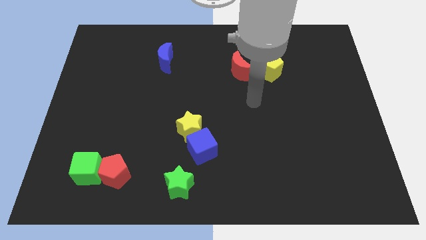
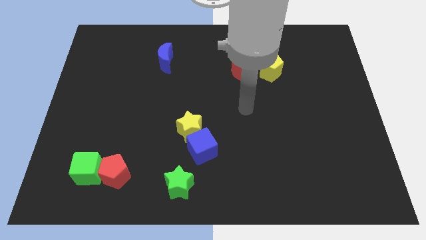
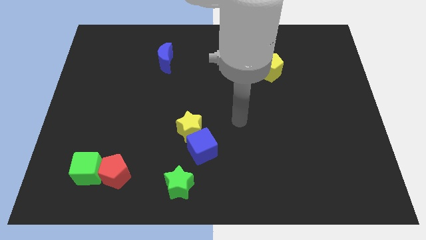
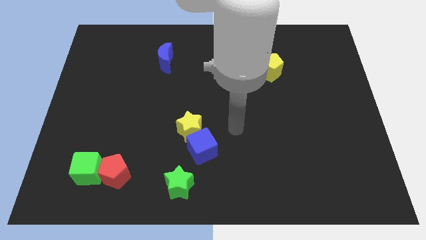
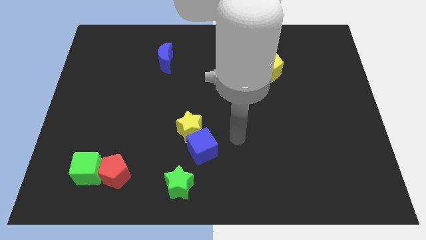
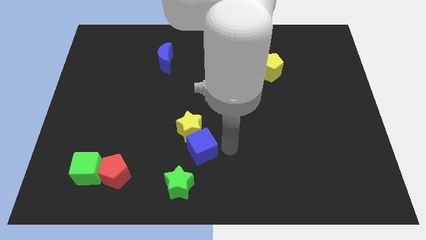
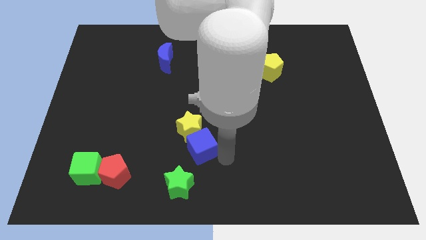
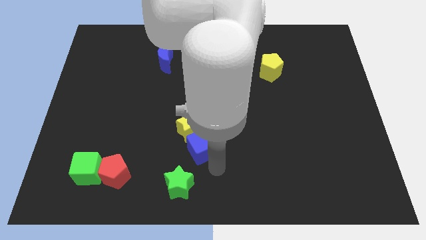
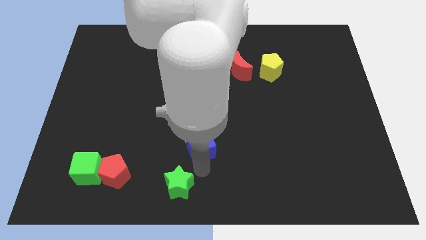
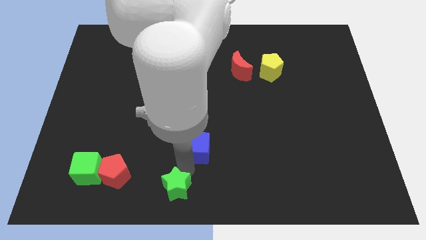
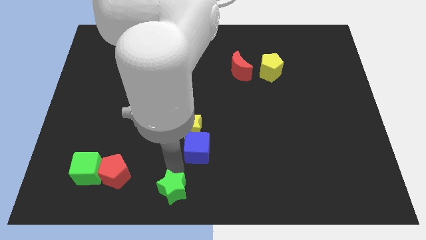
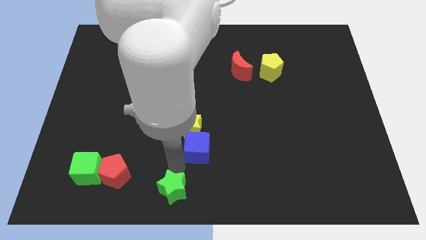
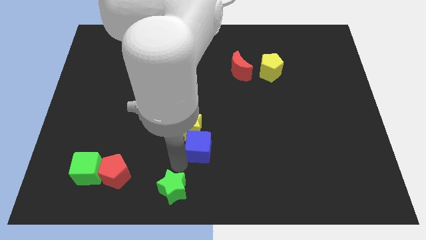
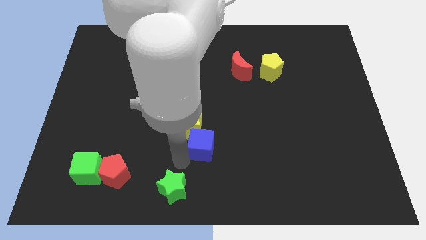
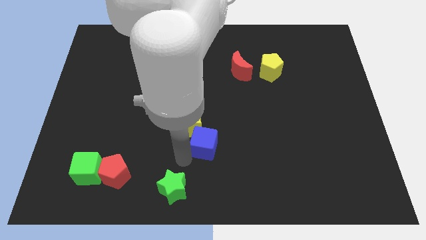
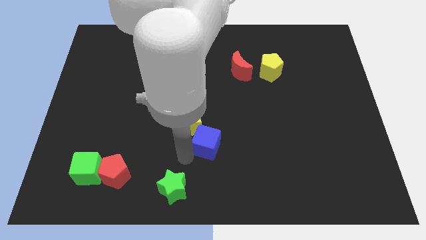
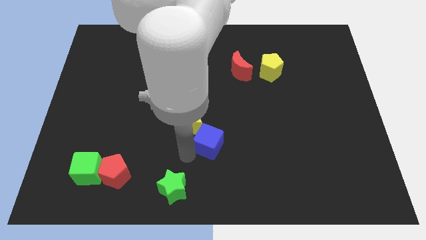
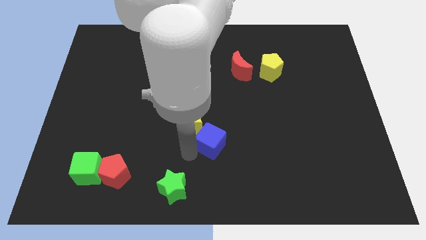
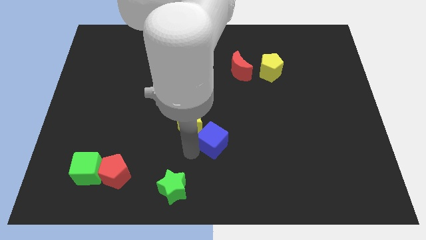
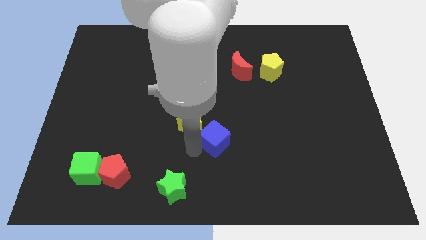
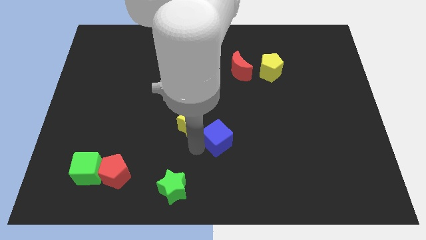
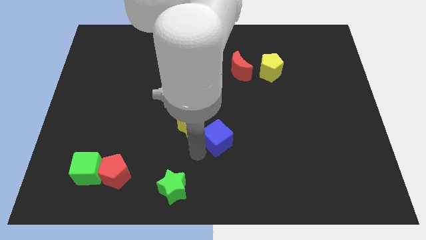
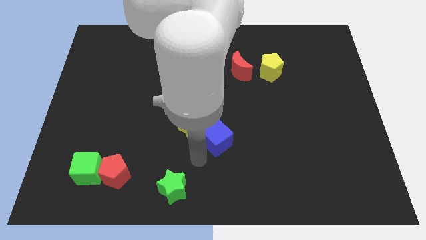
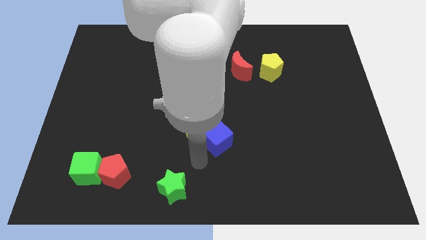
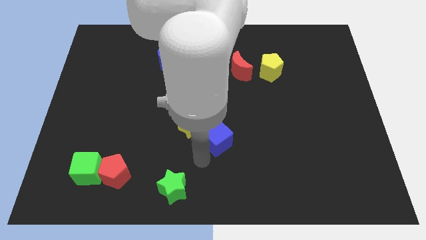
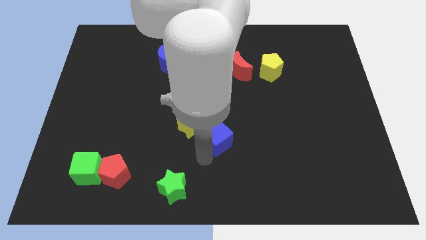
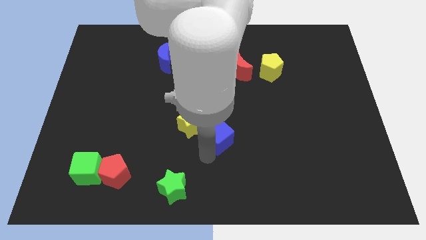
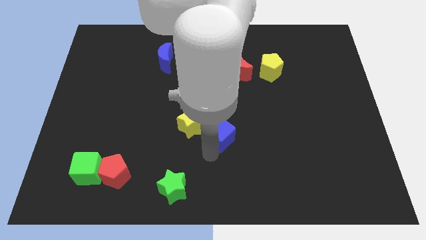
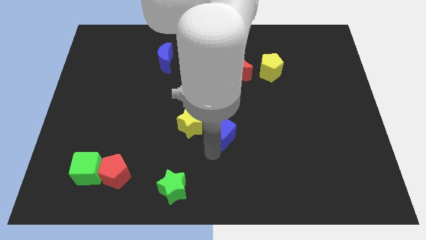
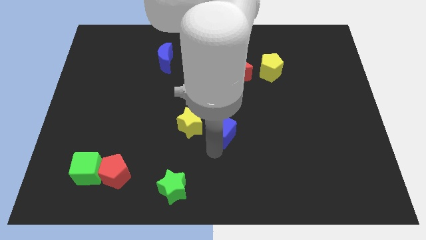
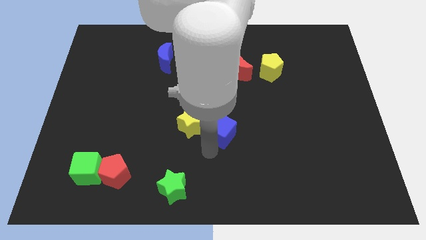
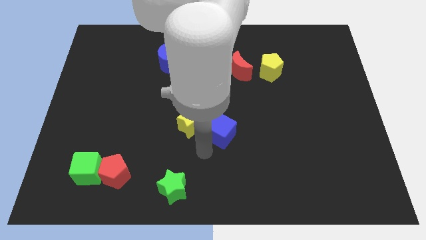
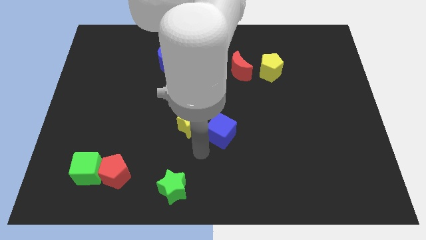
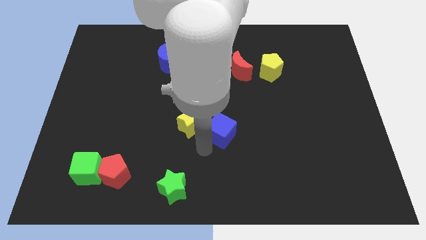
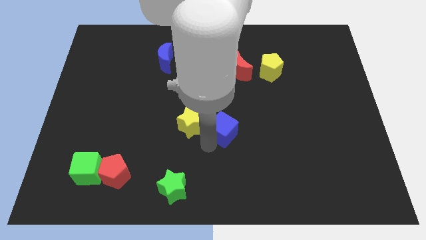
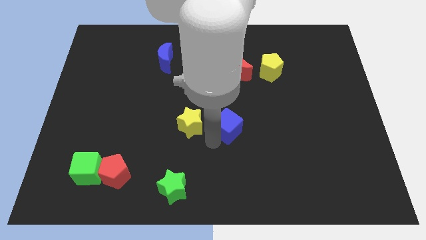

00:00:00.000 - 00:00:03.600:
move the blue cube diagonally up and to the right a little bit

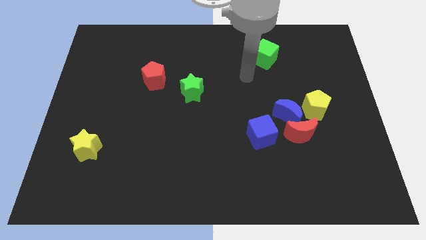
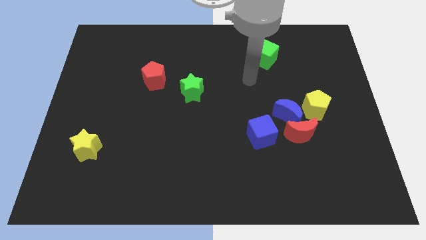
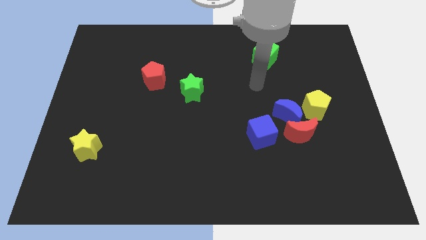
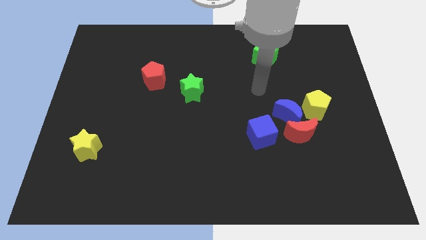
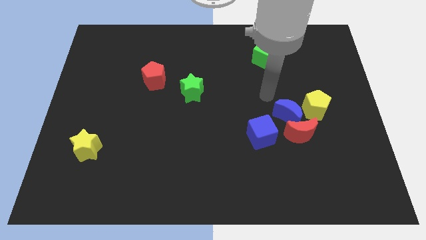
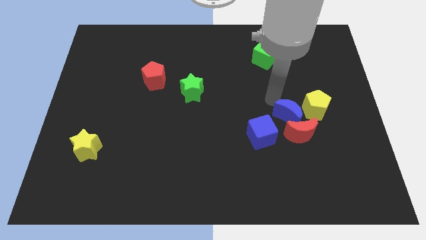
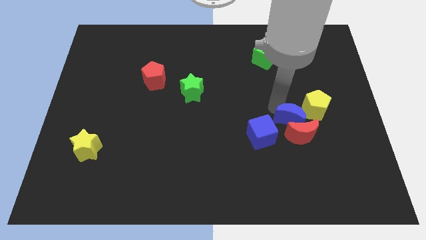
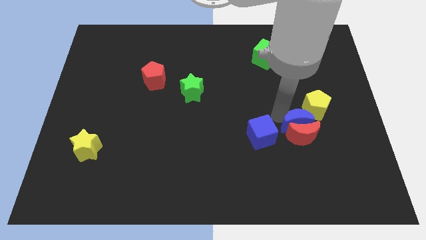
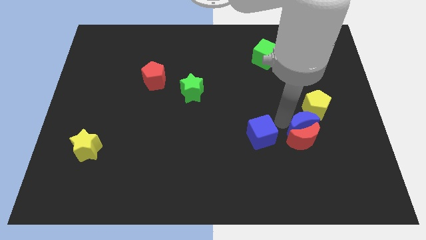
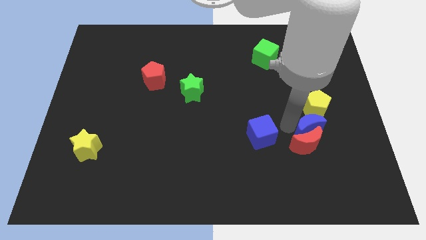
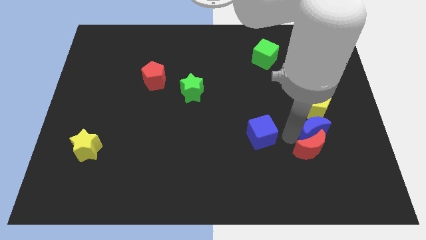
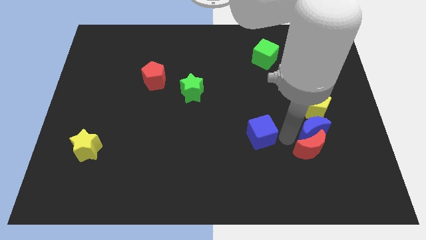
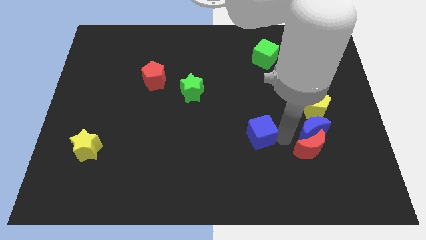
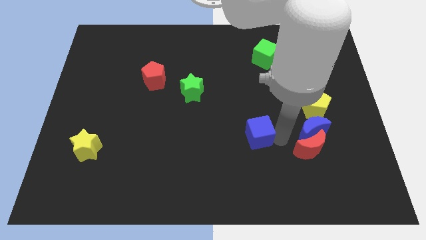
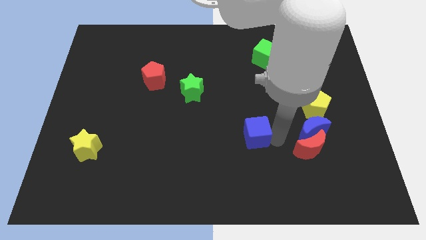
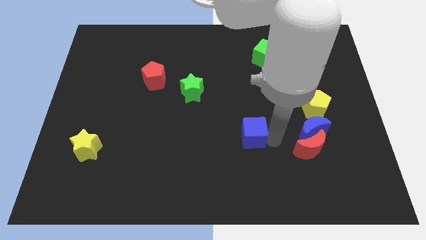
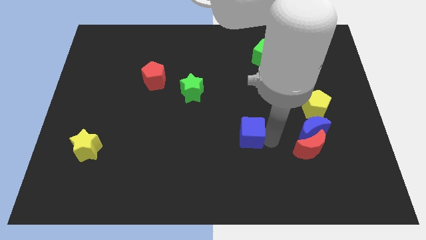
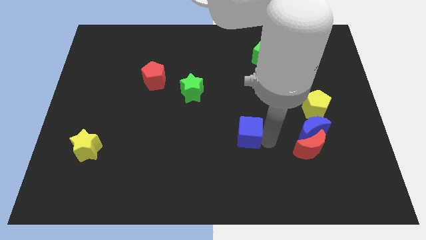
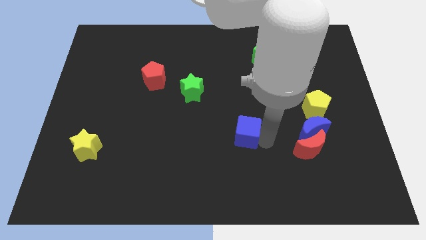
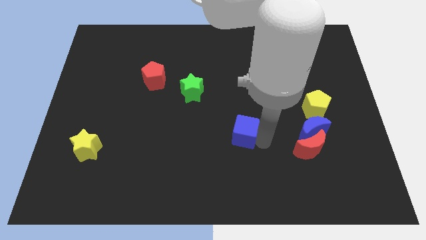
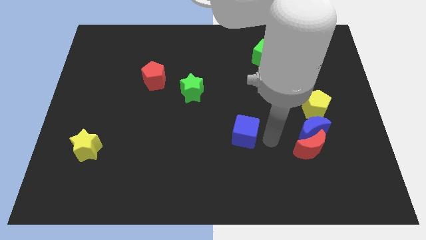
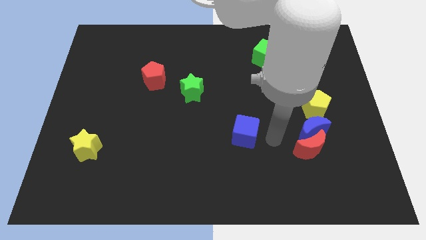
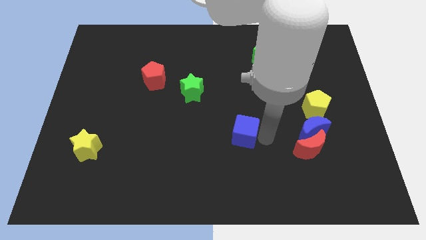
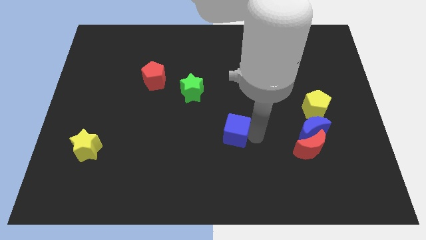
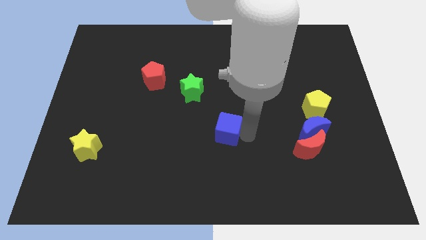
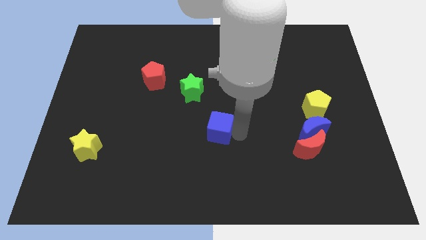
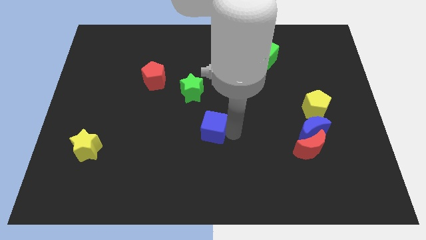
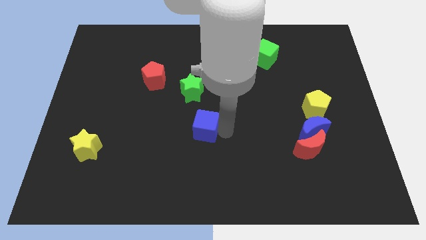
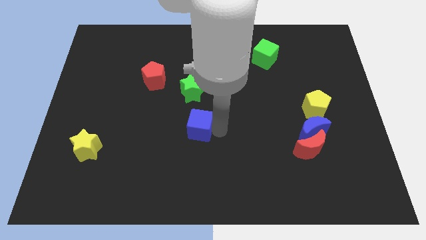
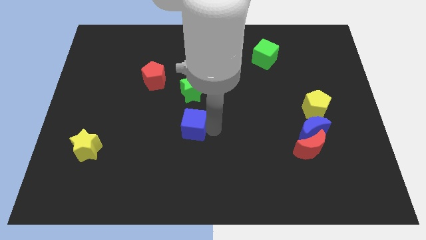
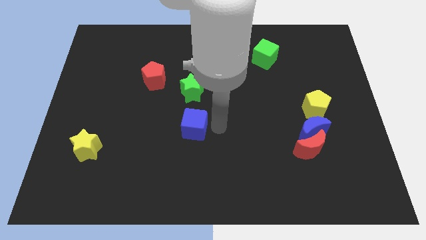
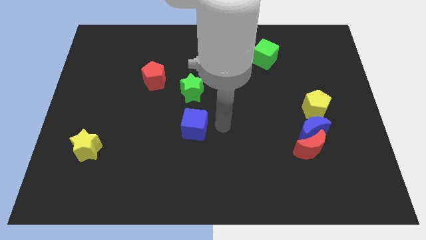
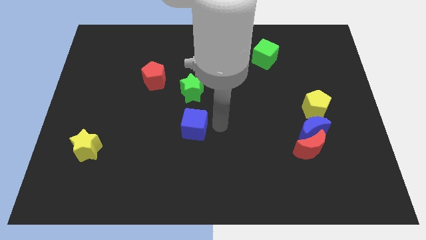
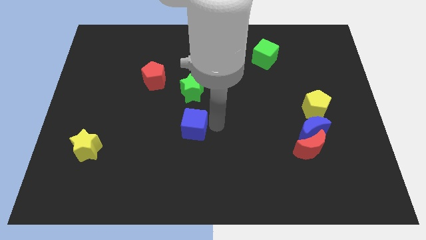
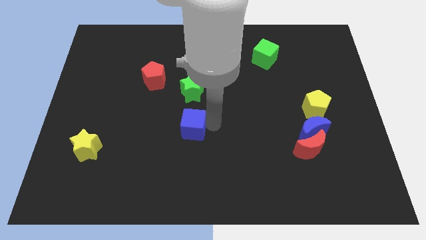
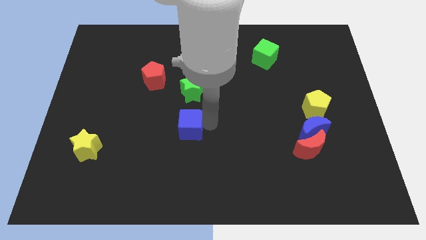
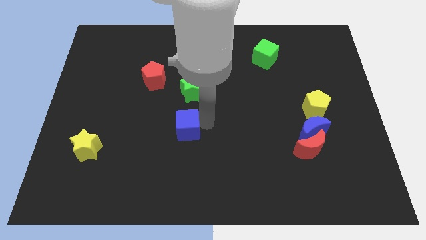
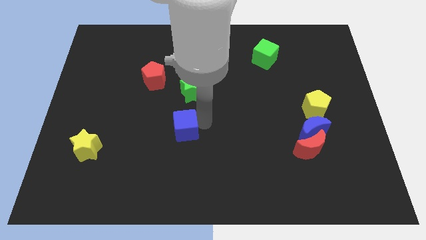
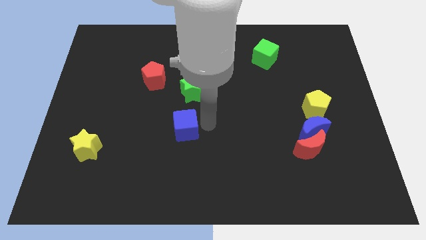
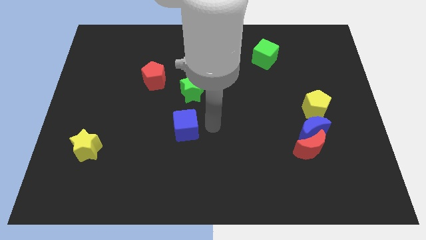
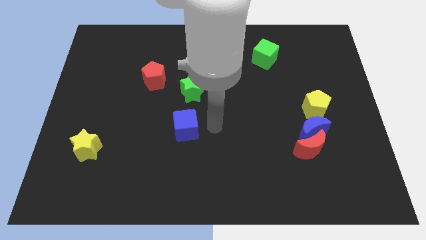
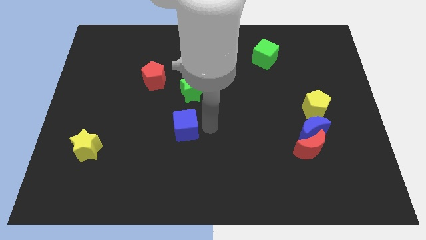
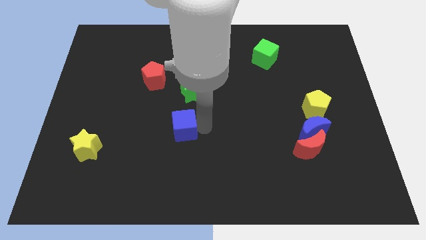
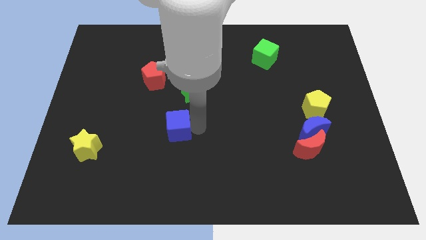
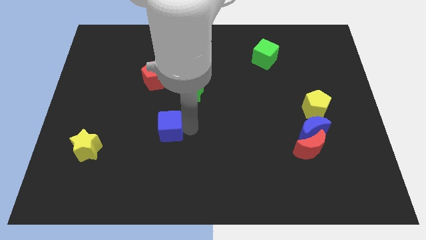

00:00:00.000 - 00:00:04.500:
push the blue cube to the left
